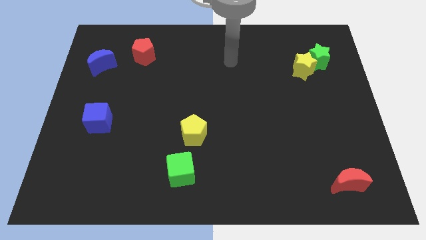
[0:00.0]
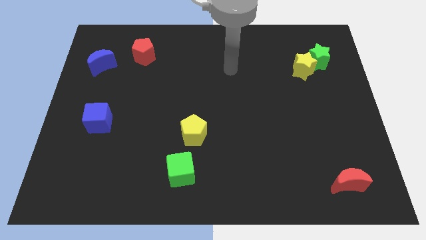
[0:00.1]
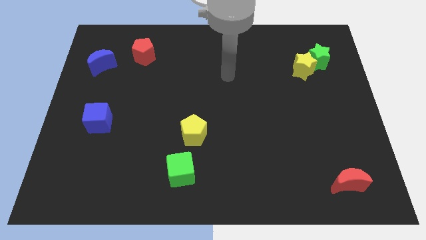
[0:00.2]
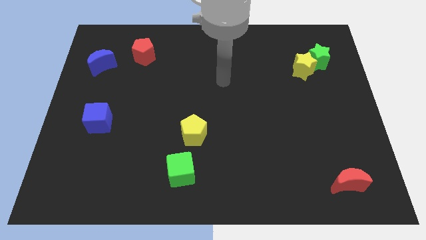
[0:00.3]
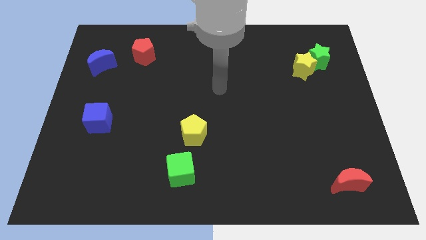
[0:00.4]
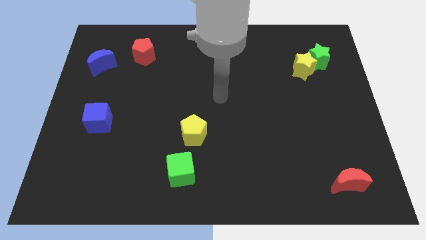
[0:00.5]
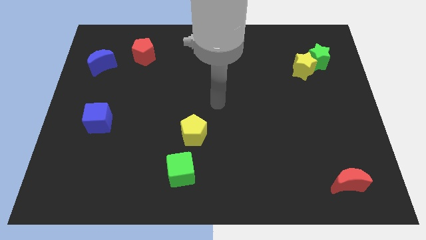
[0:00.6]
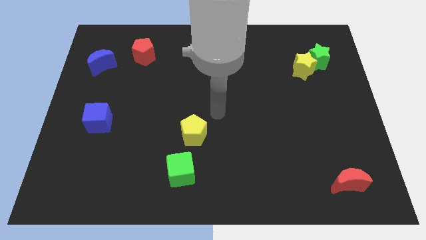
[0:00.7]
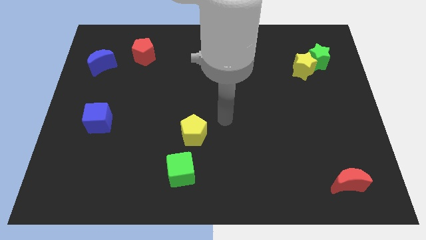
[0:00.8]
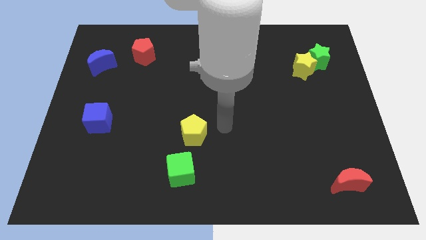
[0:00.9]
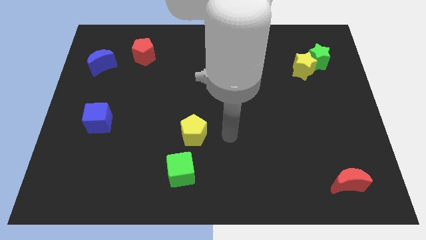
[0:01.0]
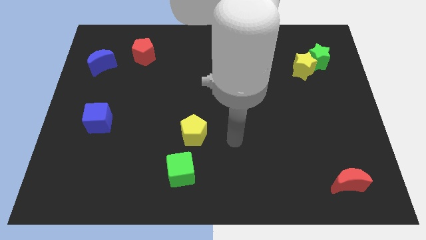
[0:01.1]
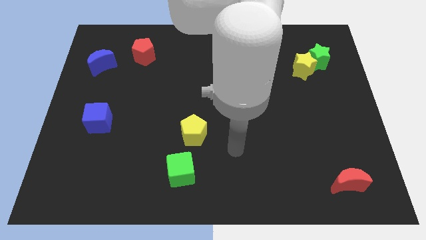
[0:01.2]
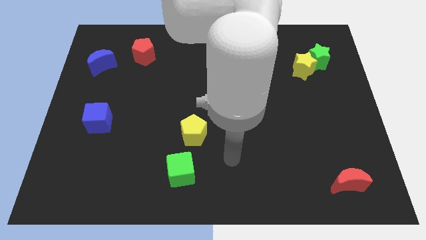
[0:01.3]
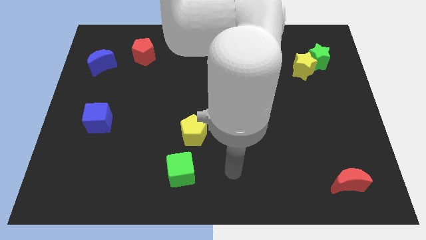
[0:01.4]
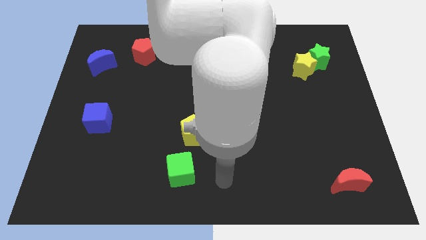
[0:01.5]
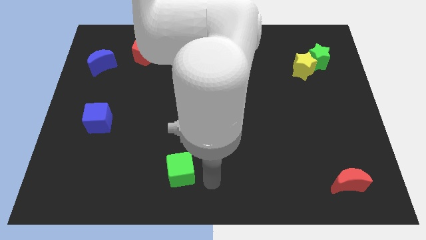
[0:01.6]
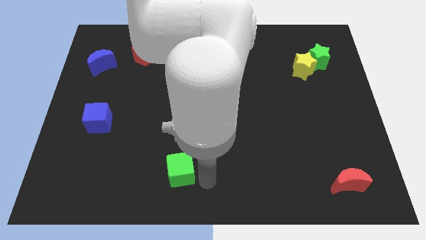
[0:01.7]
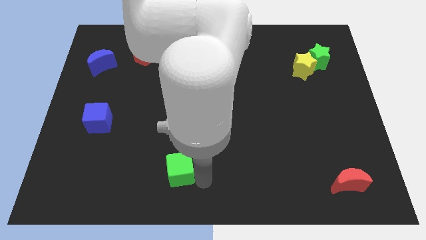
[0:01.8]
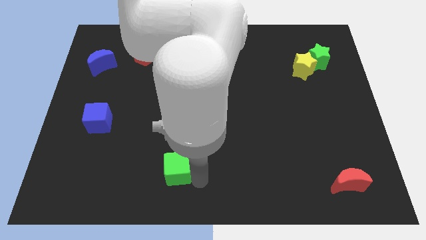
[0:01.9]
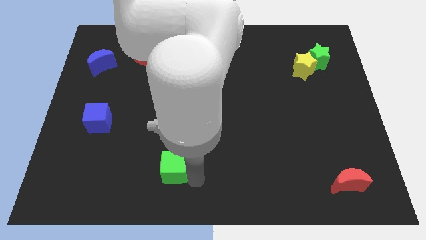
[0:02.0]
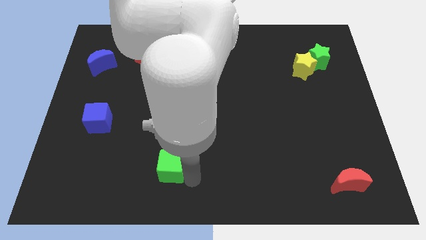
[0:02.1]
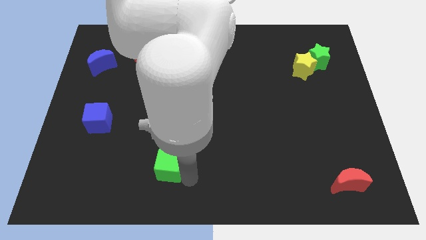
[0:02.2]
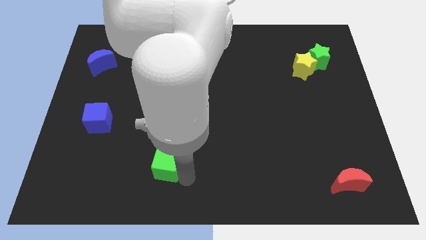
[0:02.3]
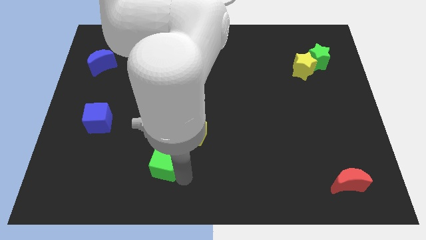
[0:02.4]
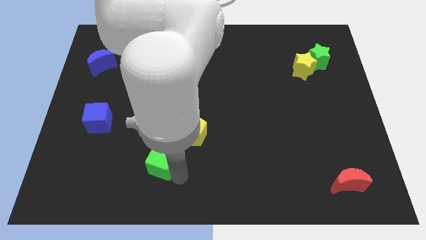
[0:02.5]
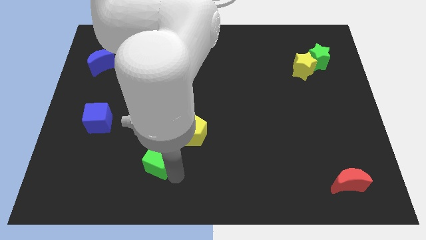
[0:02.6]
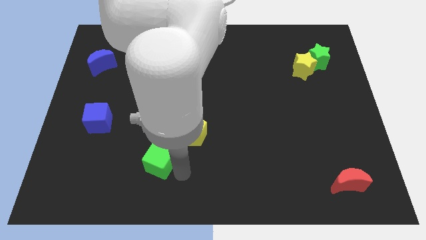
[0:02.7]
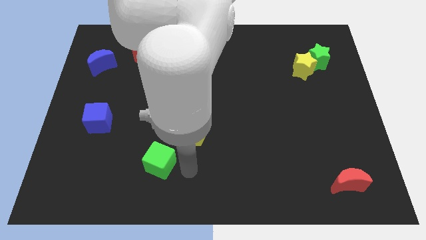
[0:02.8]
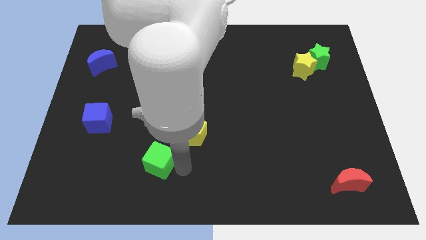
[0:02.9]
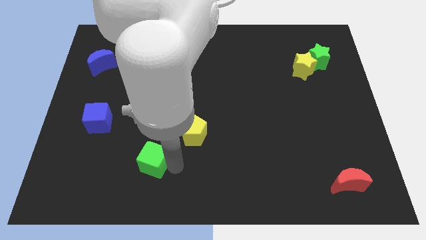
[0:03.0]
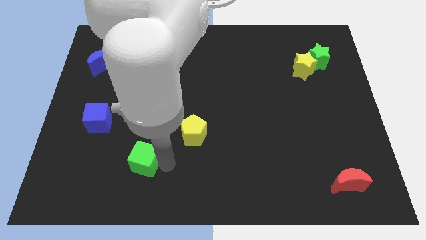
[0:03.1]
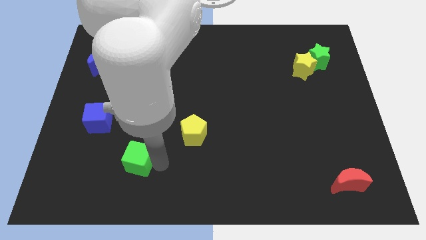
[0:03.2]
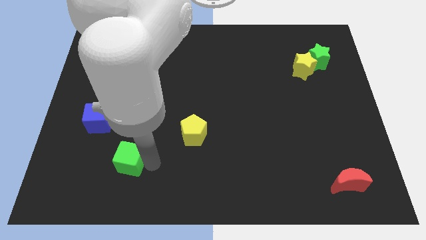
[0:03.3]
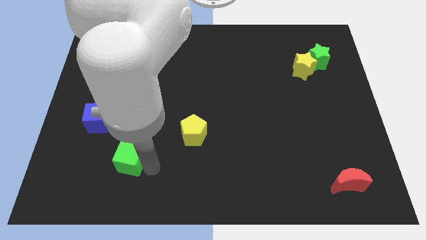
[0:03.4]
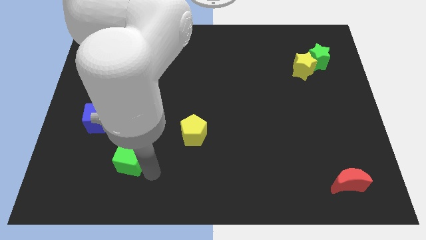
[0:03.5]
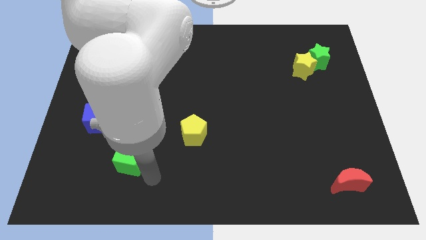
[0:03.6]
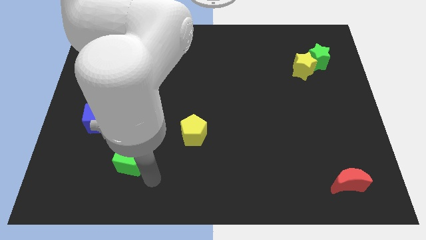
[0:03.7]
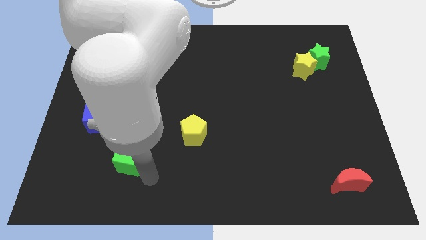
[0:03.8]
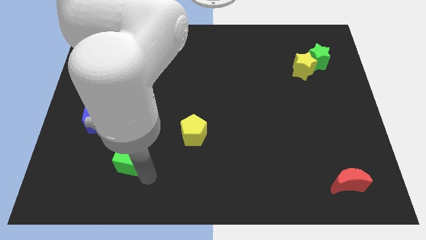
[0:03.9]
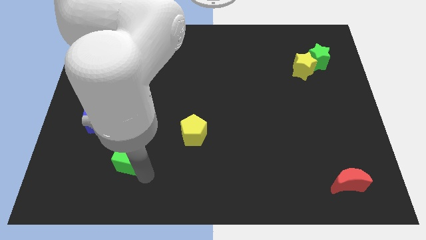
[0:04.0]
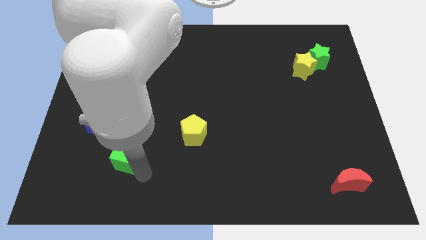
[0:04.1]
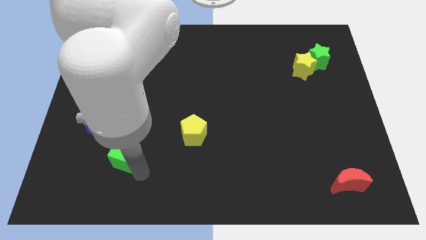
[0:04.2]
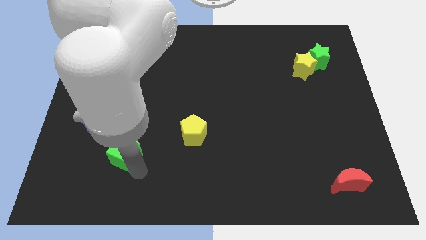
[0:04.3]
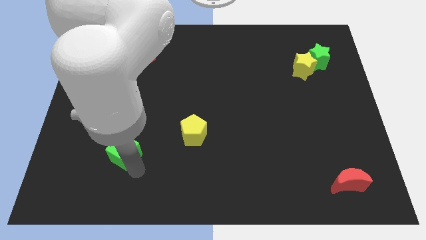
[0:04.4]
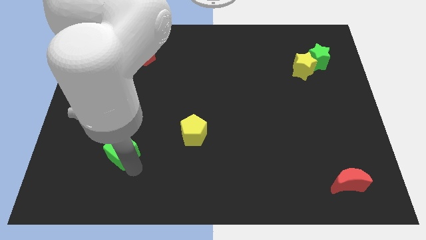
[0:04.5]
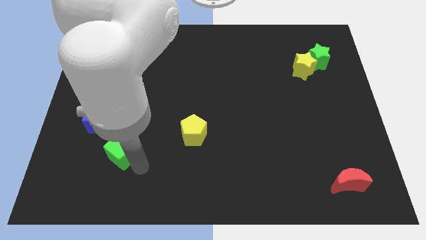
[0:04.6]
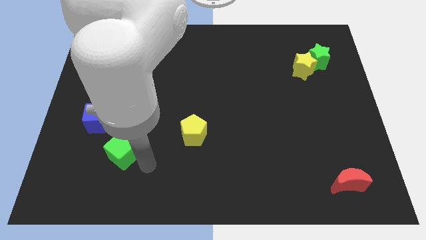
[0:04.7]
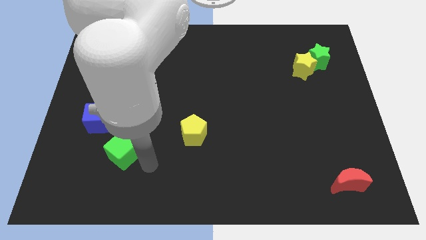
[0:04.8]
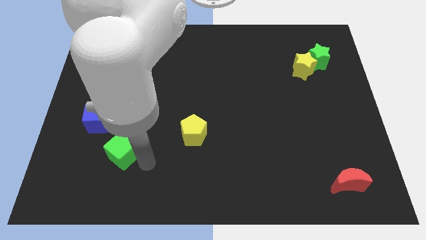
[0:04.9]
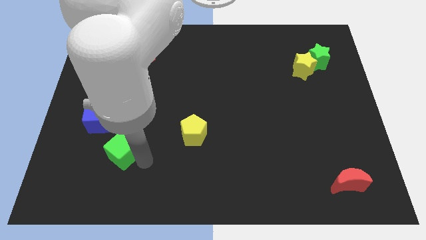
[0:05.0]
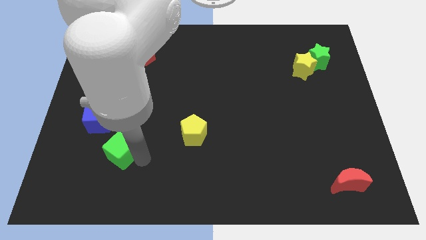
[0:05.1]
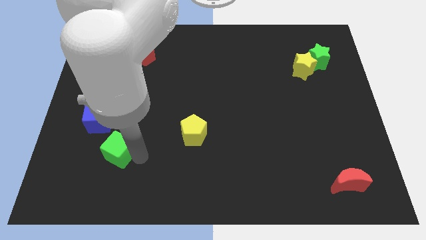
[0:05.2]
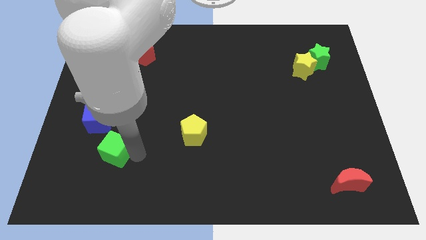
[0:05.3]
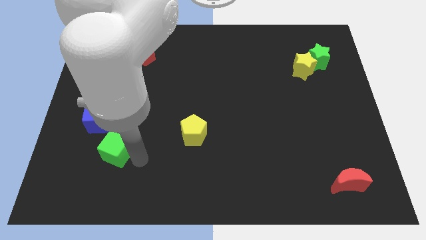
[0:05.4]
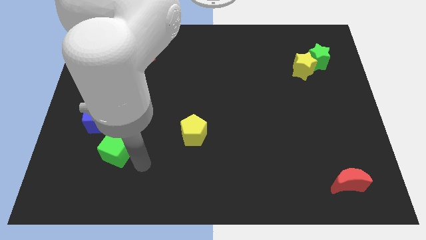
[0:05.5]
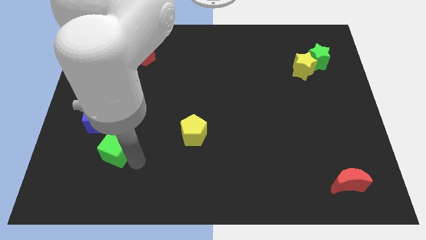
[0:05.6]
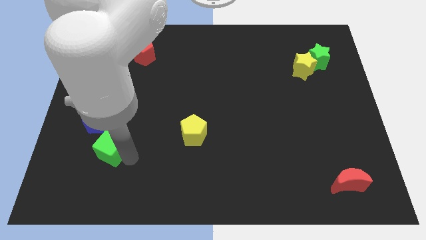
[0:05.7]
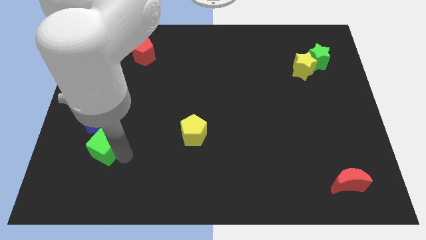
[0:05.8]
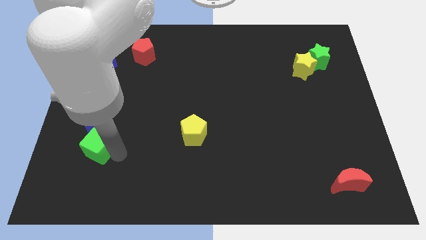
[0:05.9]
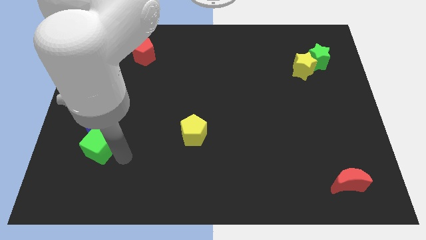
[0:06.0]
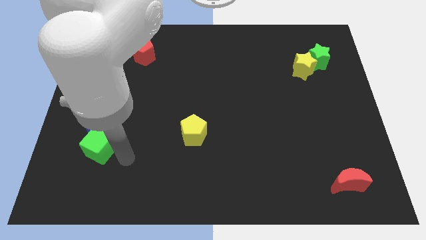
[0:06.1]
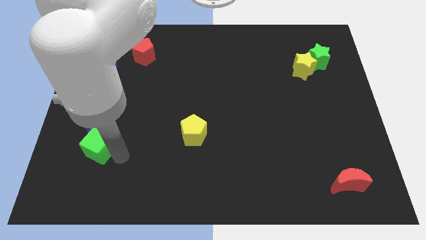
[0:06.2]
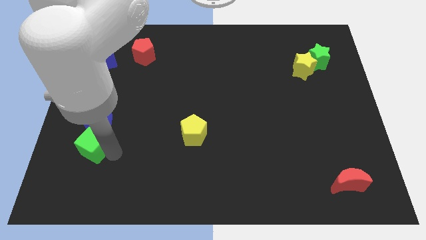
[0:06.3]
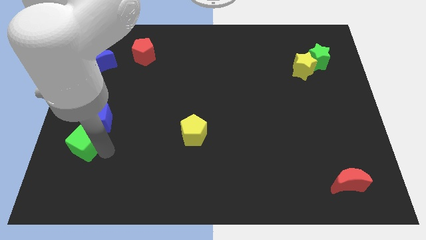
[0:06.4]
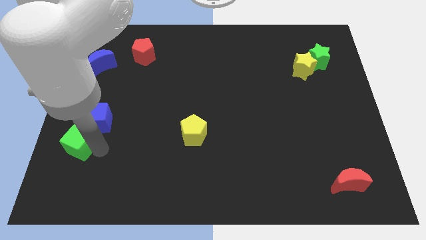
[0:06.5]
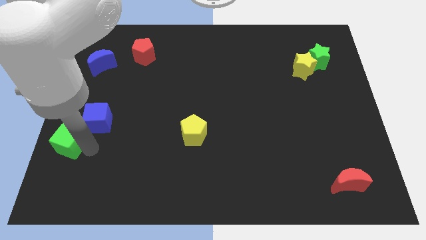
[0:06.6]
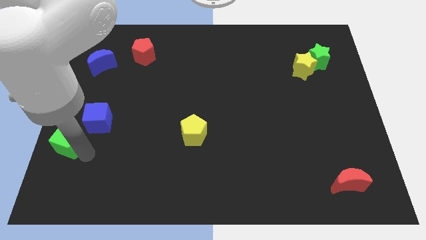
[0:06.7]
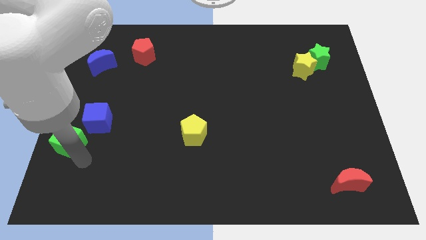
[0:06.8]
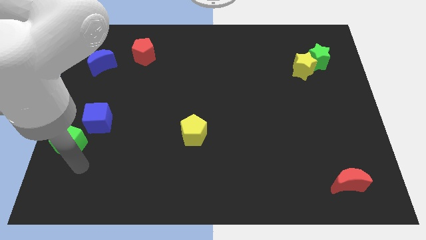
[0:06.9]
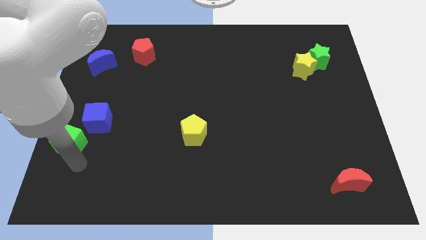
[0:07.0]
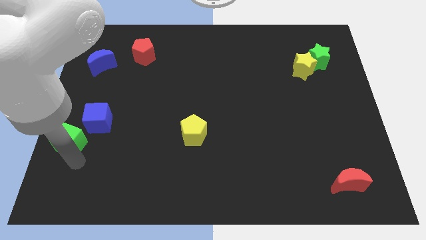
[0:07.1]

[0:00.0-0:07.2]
move the green cube to the center left
